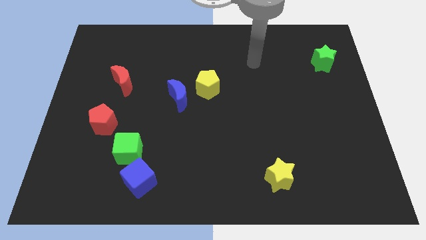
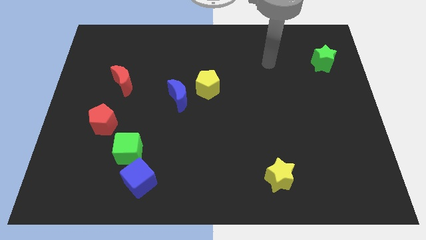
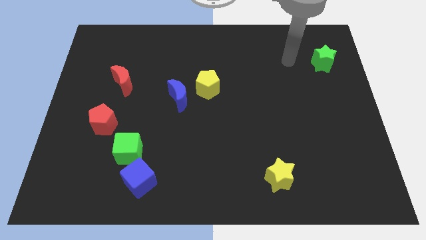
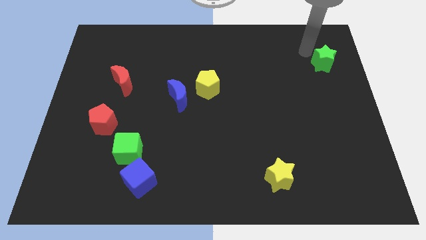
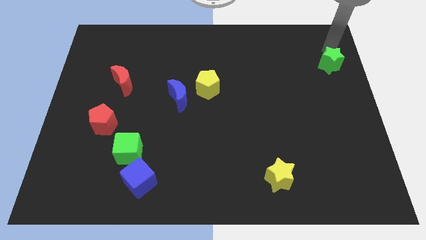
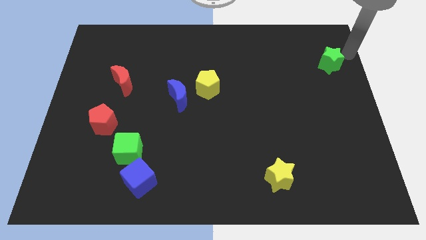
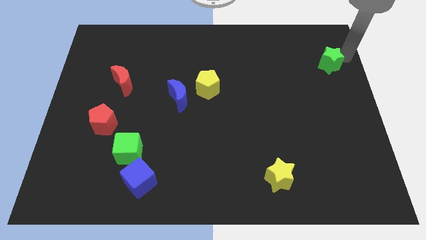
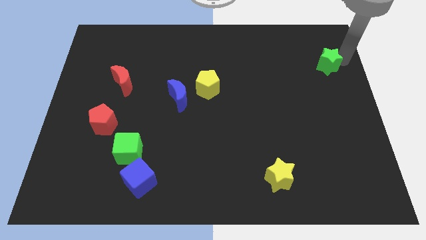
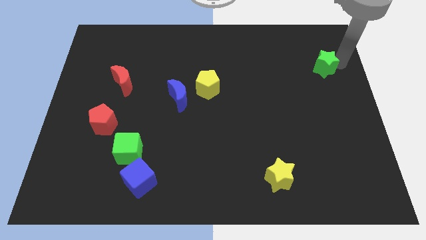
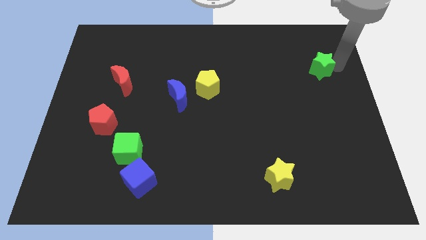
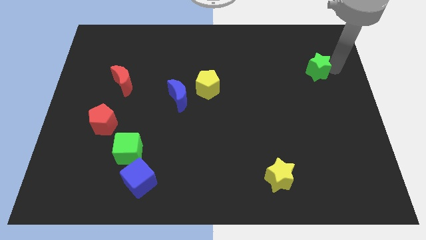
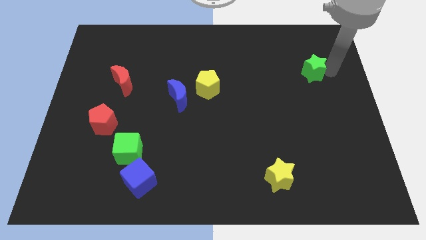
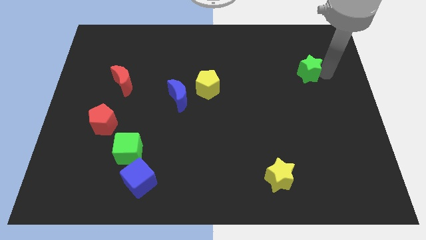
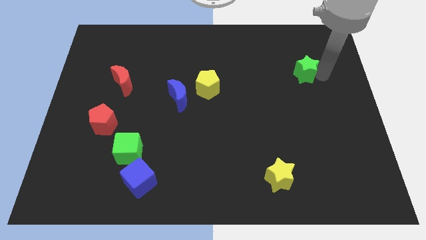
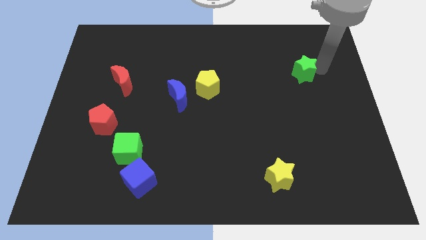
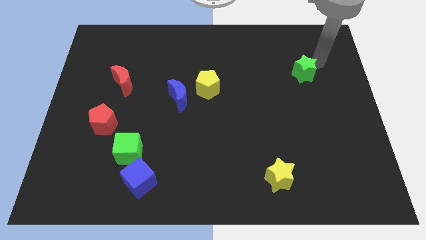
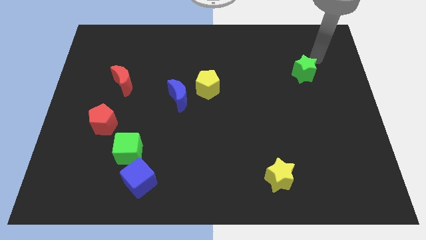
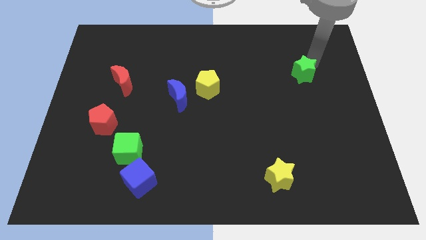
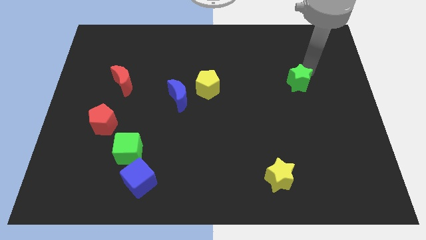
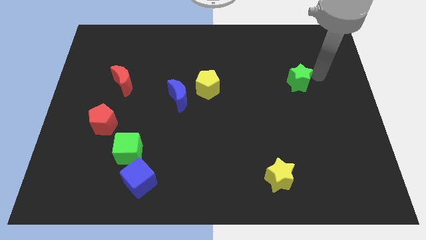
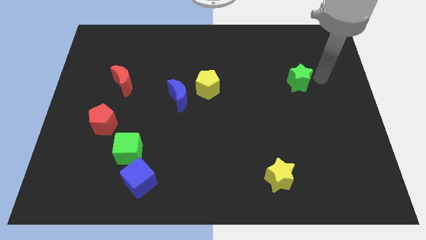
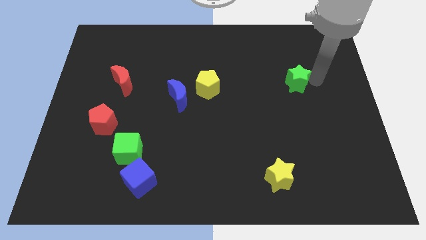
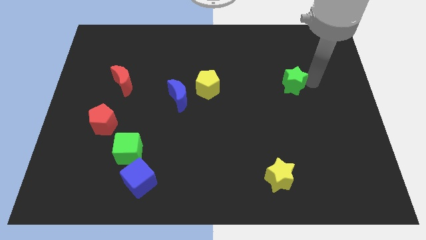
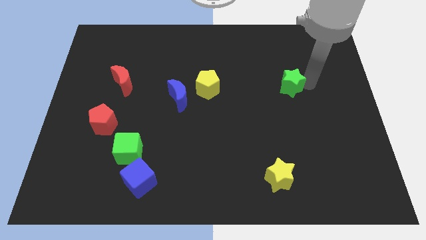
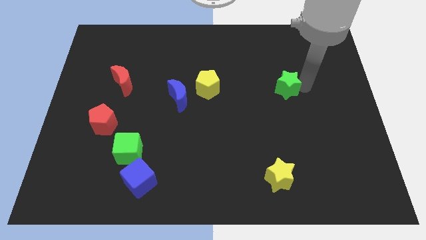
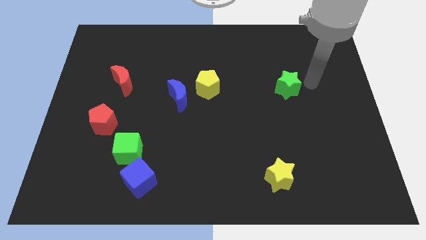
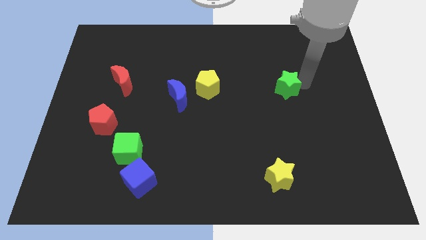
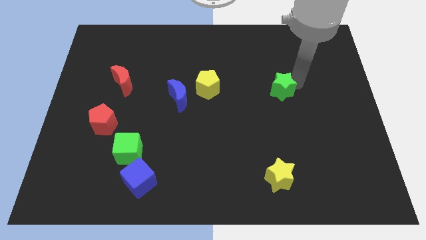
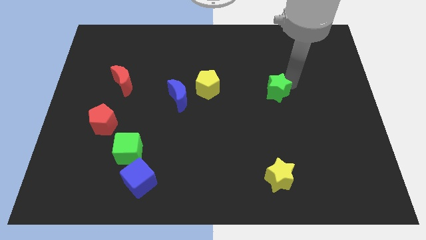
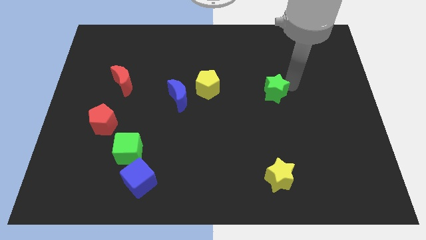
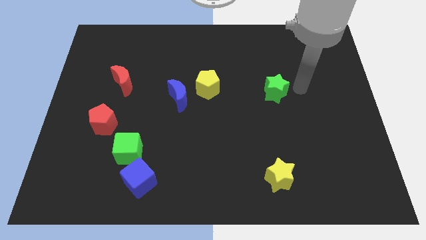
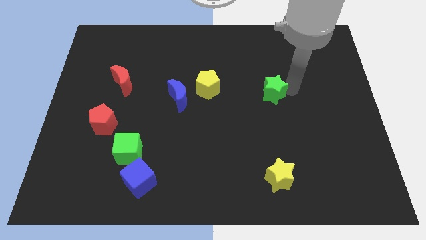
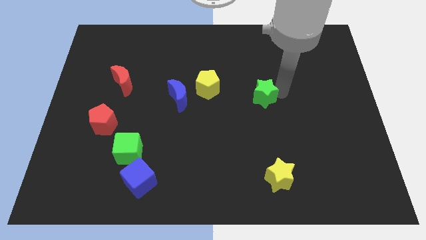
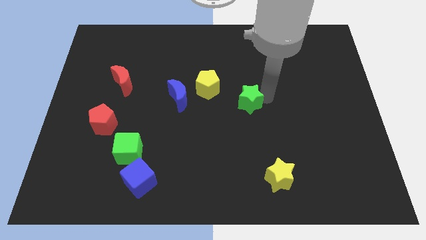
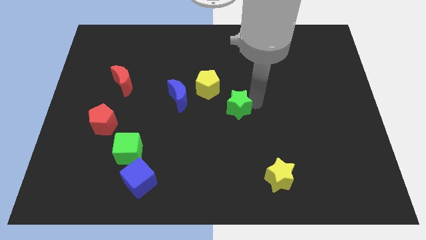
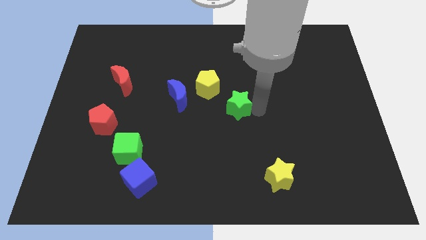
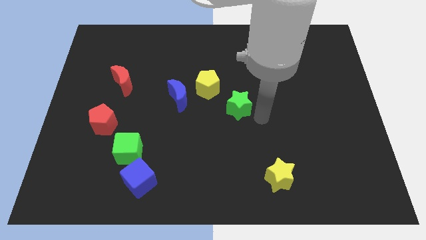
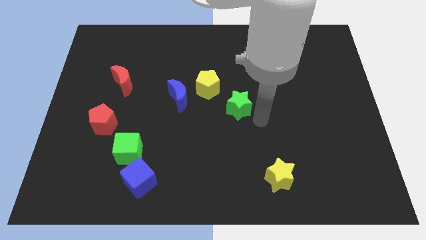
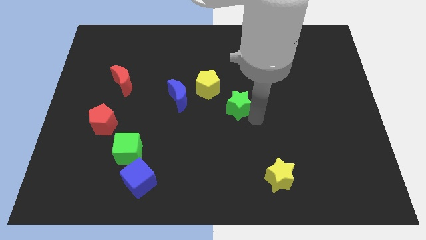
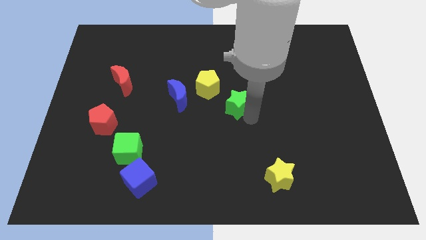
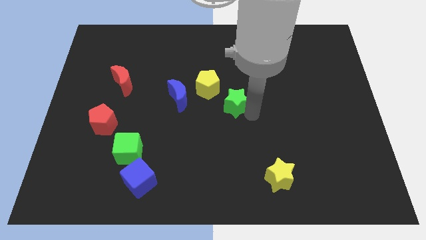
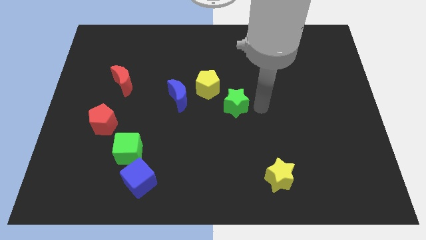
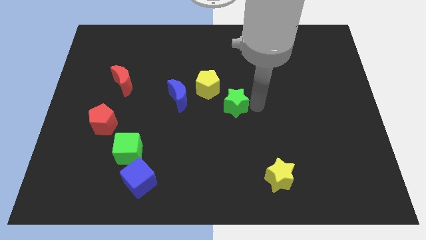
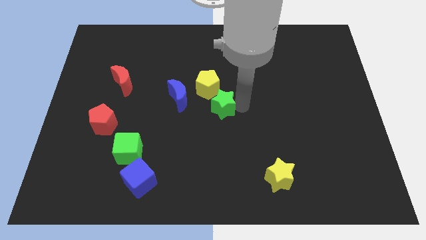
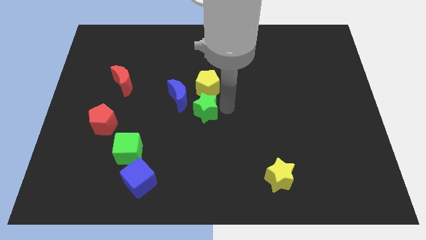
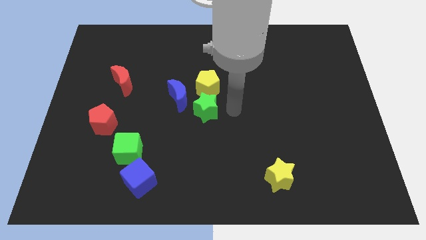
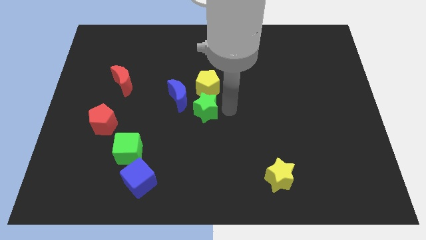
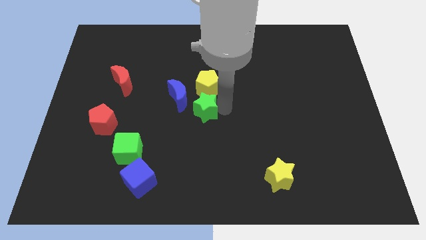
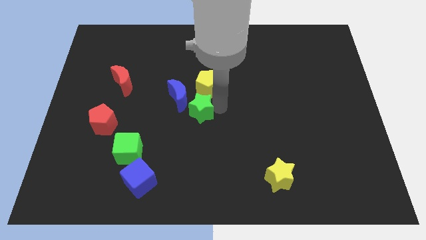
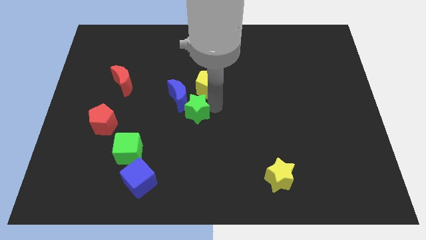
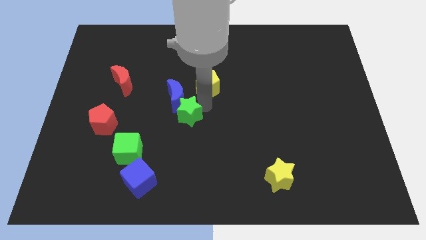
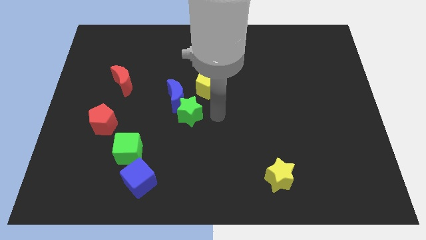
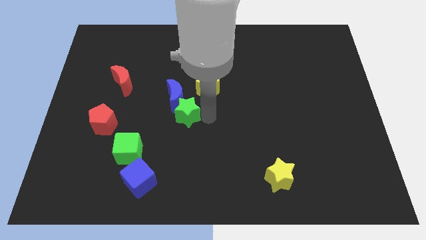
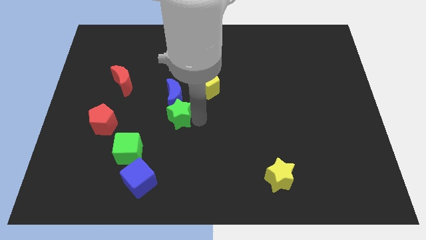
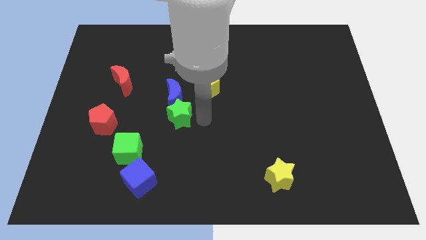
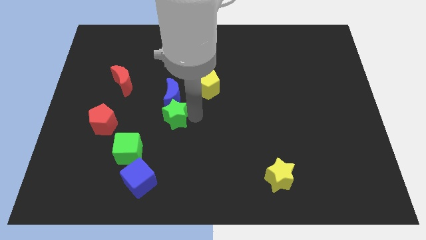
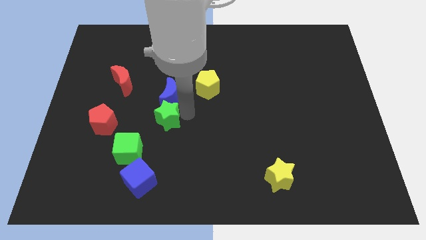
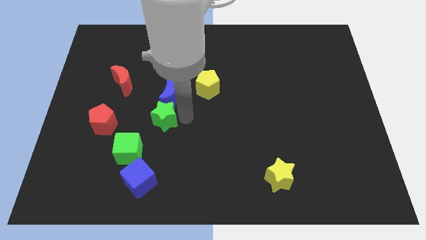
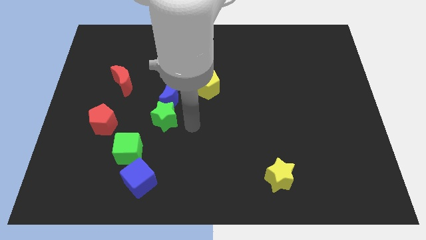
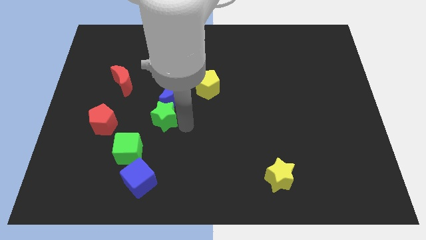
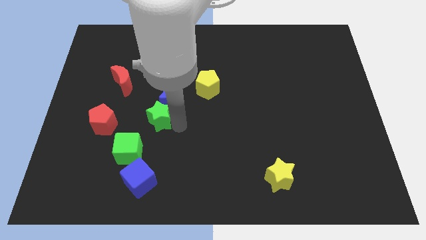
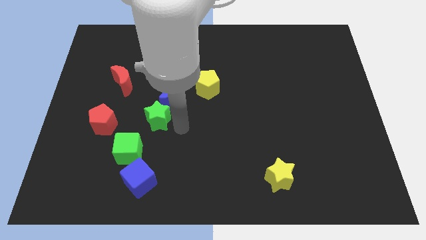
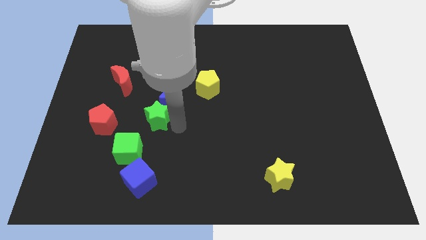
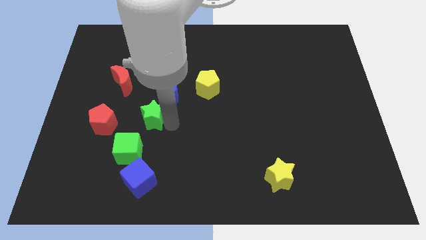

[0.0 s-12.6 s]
move the green star to the top of the green cube
